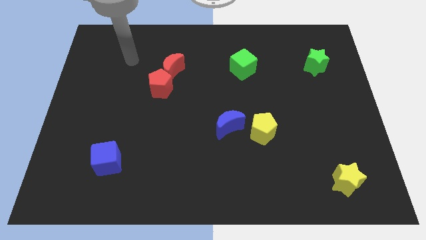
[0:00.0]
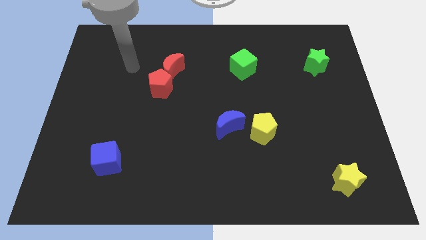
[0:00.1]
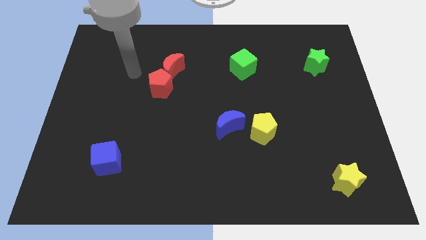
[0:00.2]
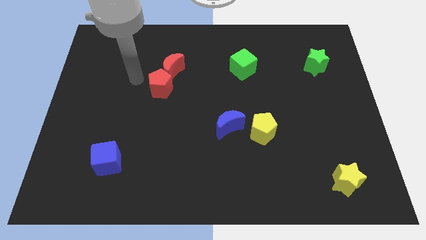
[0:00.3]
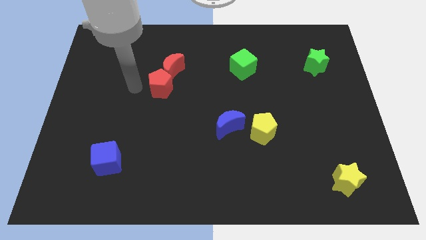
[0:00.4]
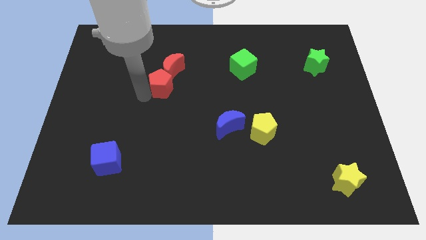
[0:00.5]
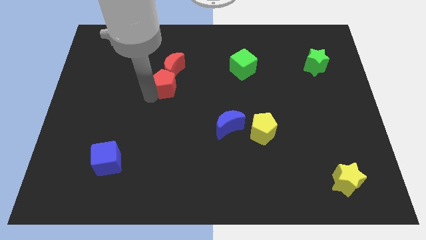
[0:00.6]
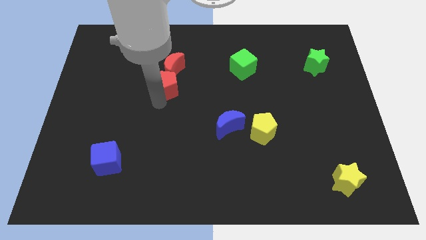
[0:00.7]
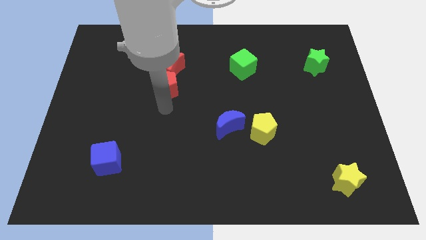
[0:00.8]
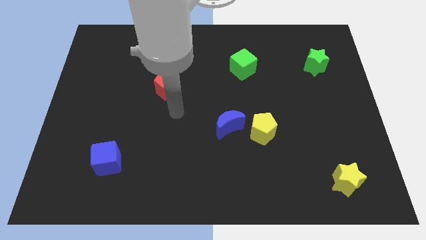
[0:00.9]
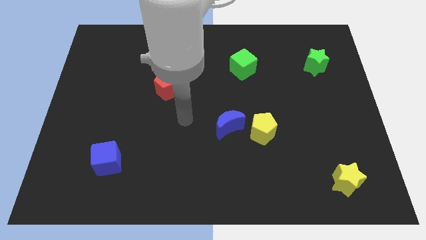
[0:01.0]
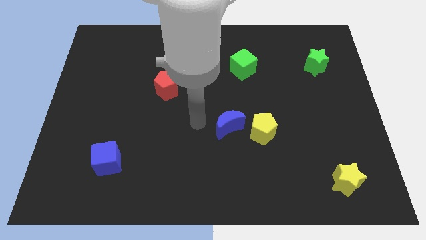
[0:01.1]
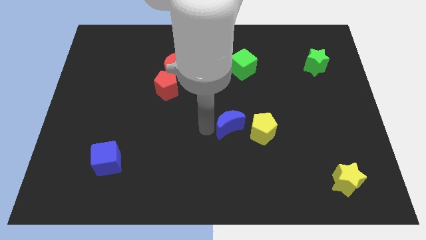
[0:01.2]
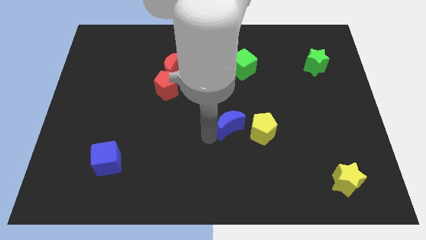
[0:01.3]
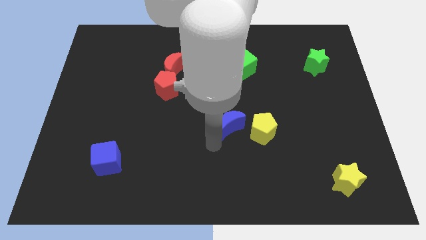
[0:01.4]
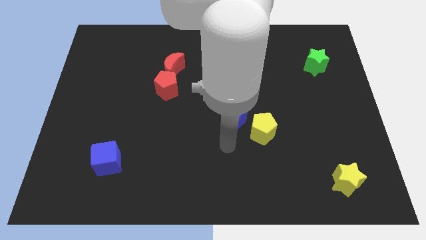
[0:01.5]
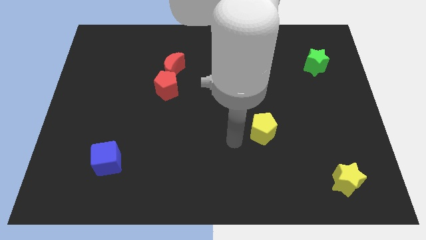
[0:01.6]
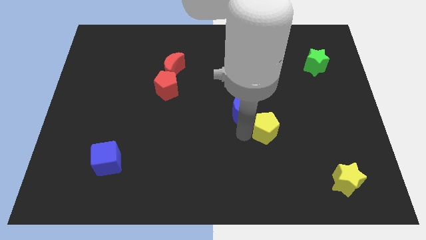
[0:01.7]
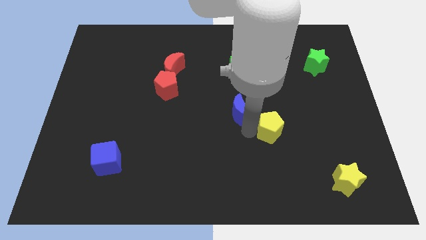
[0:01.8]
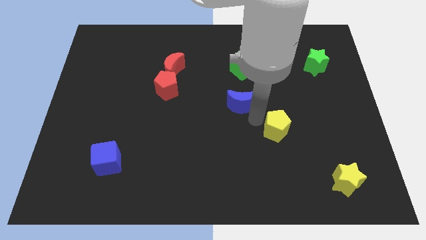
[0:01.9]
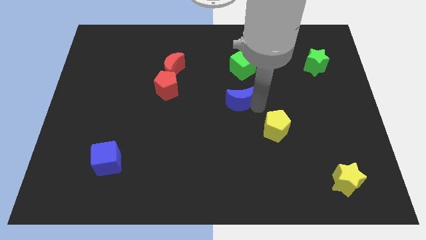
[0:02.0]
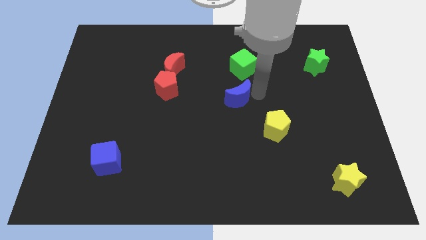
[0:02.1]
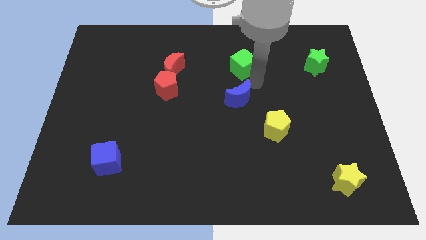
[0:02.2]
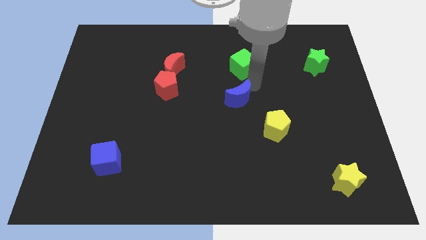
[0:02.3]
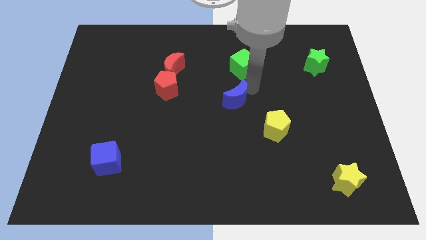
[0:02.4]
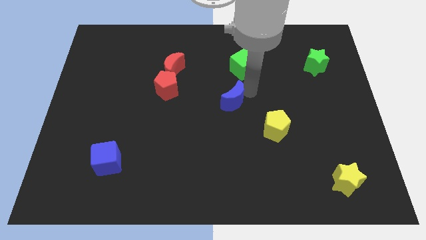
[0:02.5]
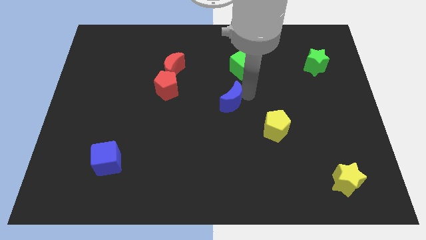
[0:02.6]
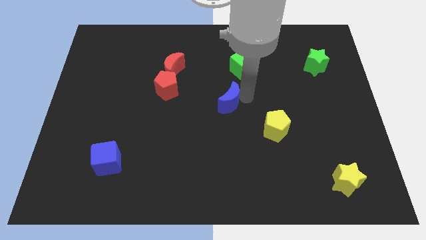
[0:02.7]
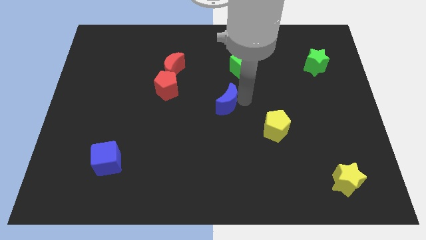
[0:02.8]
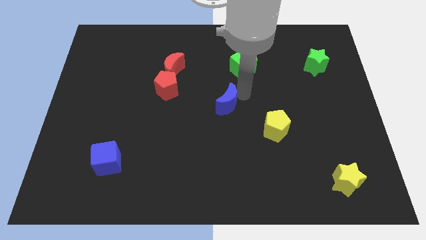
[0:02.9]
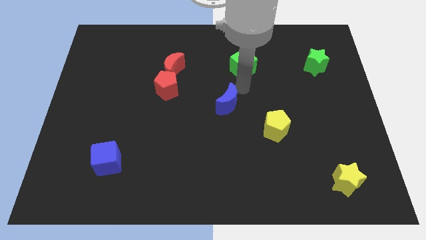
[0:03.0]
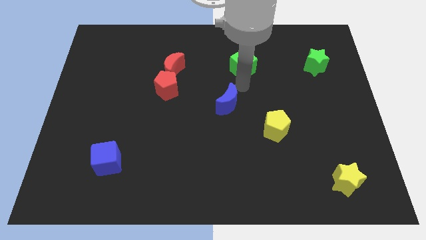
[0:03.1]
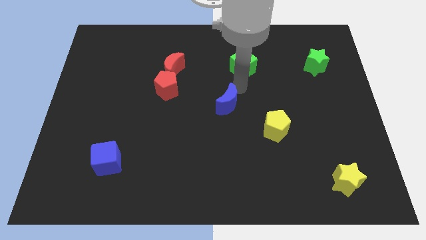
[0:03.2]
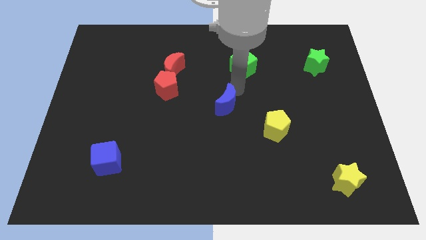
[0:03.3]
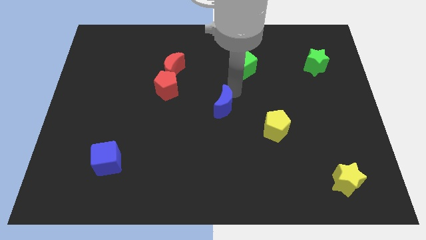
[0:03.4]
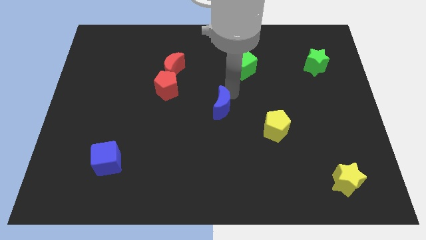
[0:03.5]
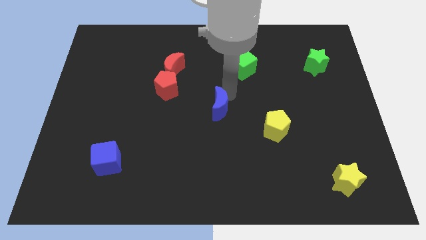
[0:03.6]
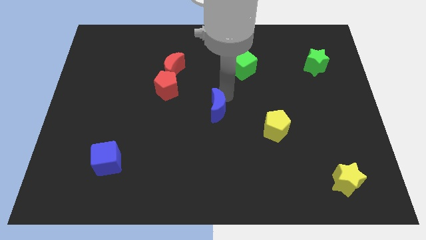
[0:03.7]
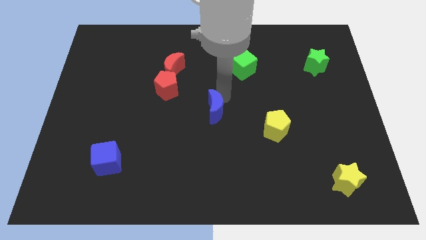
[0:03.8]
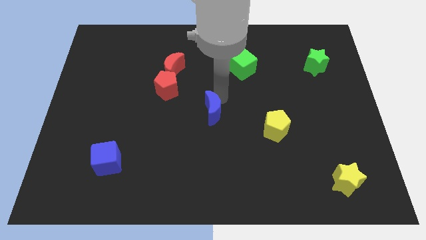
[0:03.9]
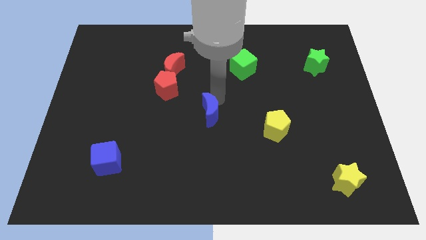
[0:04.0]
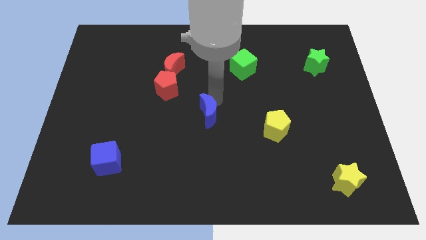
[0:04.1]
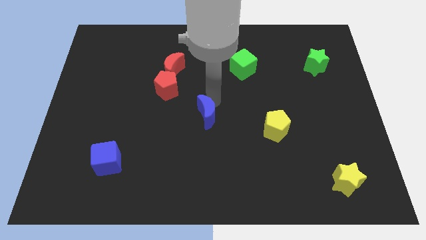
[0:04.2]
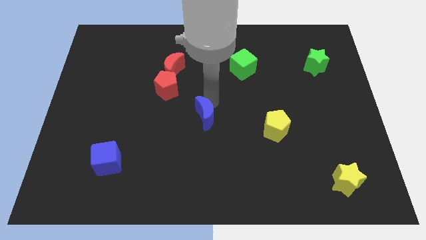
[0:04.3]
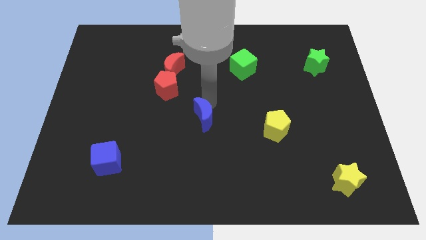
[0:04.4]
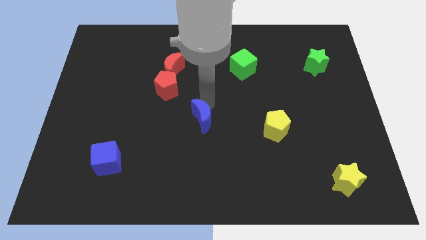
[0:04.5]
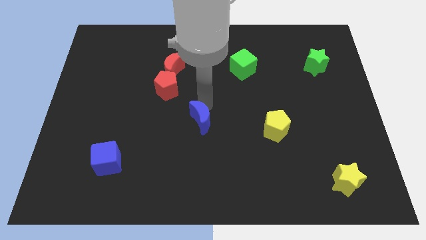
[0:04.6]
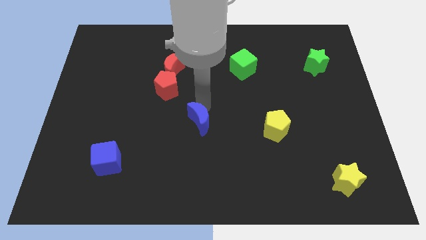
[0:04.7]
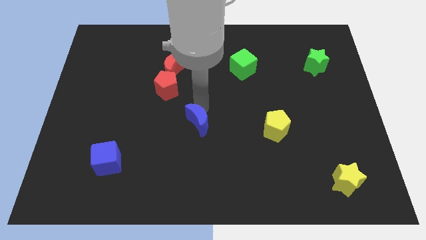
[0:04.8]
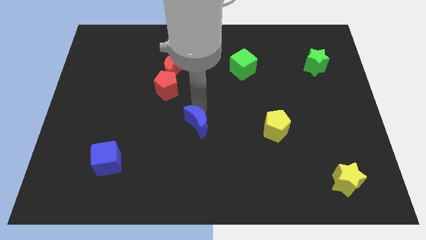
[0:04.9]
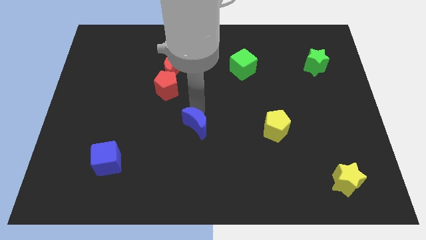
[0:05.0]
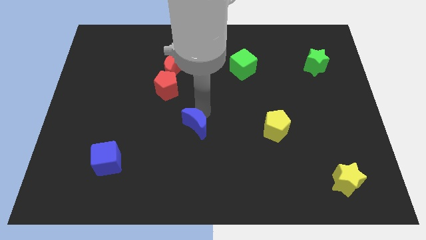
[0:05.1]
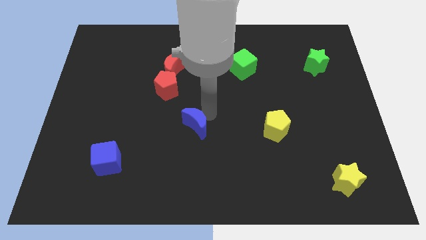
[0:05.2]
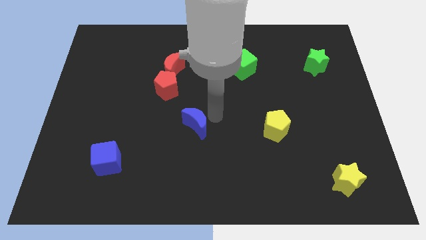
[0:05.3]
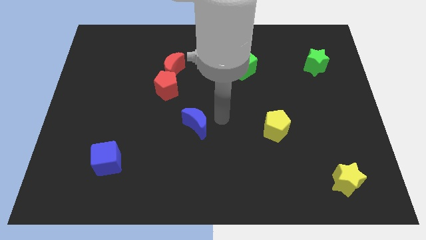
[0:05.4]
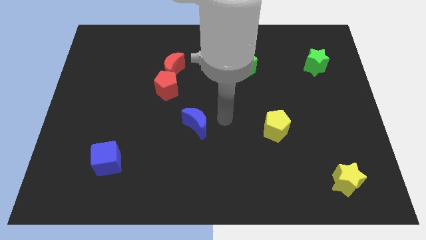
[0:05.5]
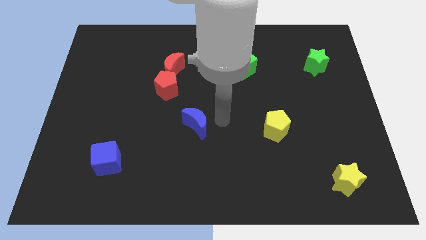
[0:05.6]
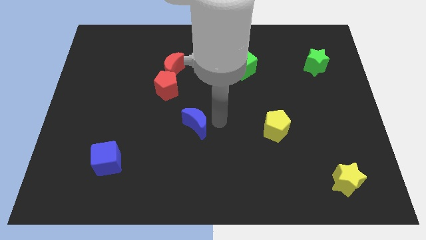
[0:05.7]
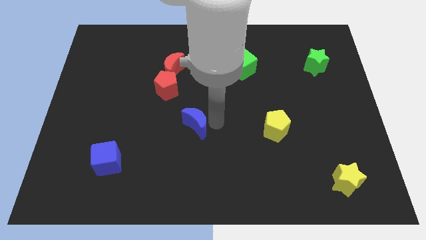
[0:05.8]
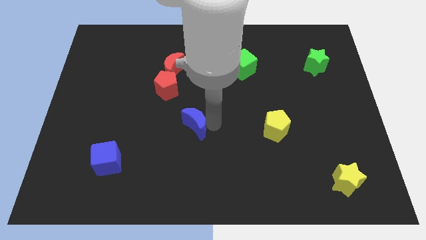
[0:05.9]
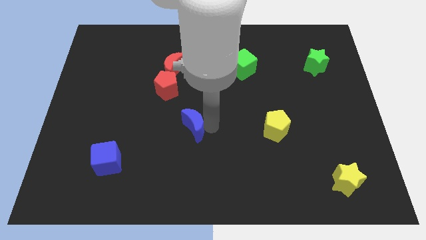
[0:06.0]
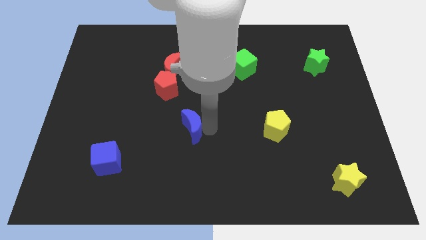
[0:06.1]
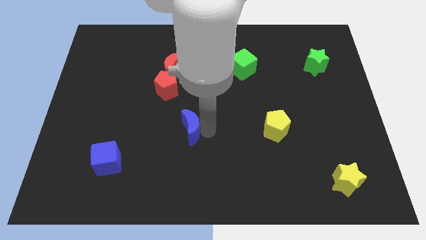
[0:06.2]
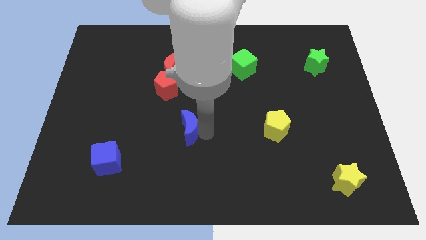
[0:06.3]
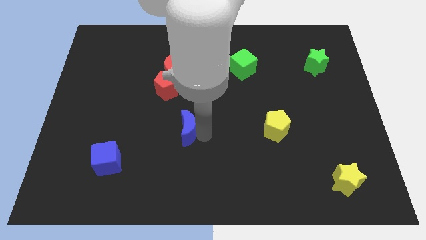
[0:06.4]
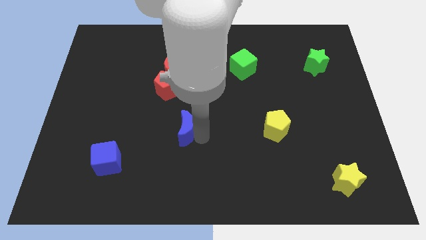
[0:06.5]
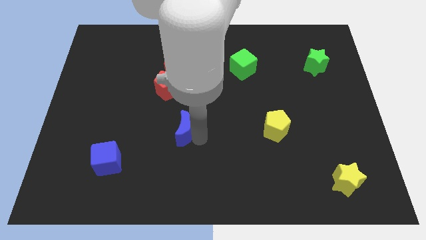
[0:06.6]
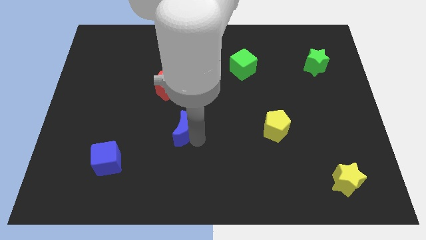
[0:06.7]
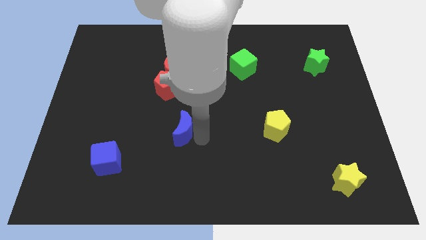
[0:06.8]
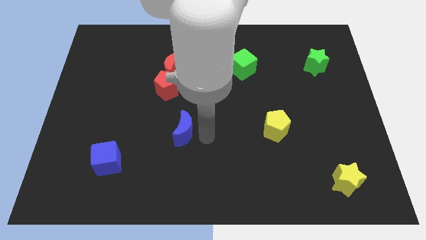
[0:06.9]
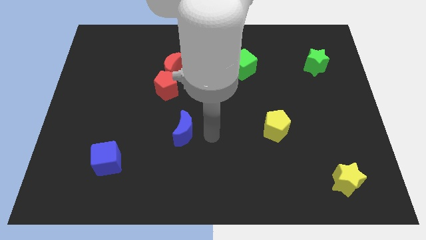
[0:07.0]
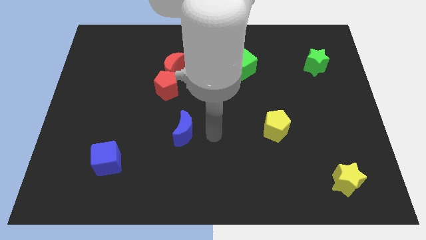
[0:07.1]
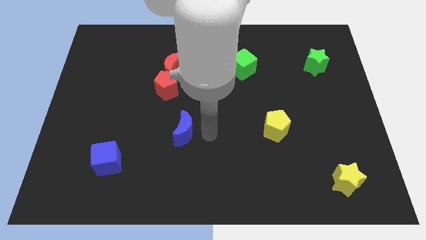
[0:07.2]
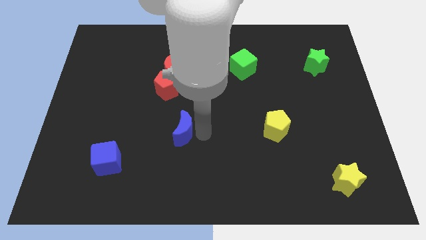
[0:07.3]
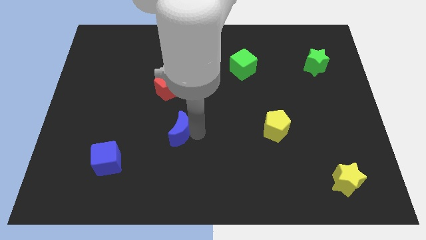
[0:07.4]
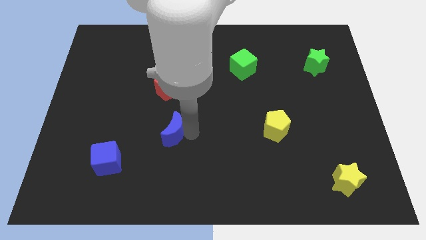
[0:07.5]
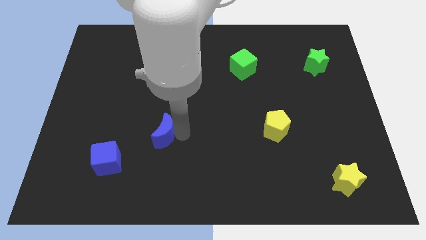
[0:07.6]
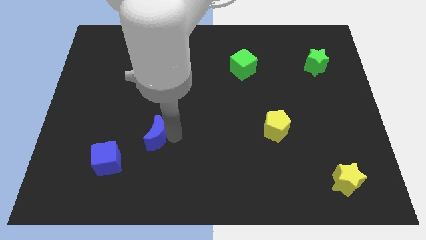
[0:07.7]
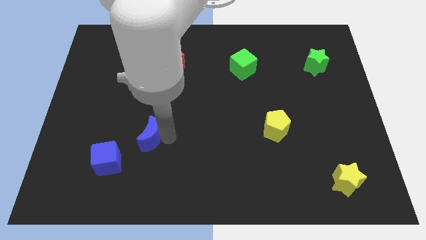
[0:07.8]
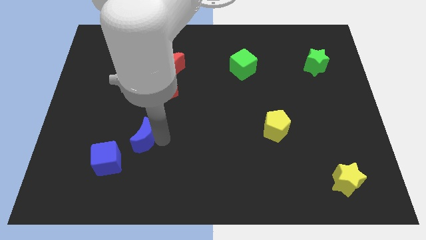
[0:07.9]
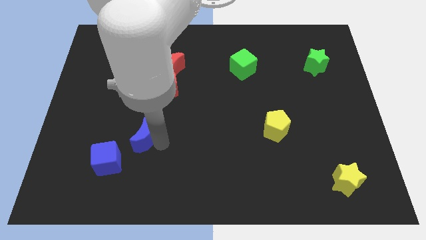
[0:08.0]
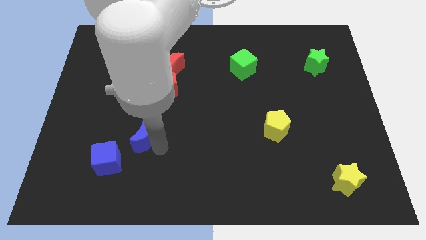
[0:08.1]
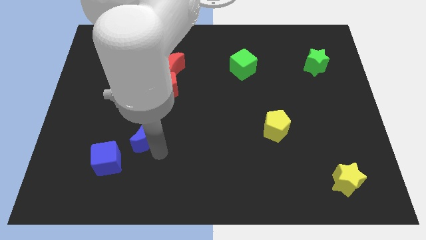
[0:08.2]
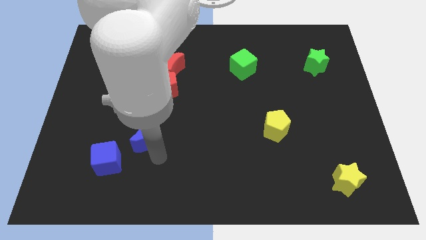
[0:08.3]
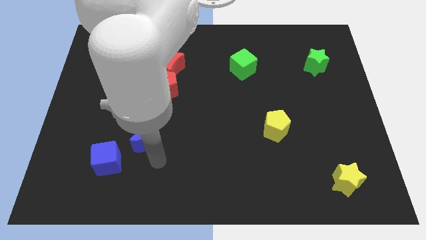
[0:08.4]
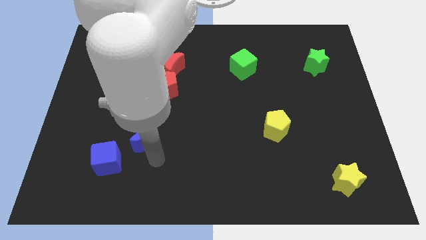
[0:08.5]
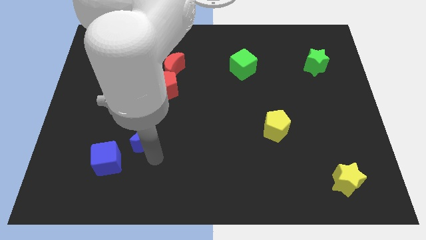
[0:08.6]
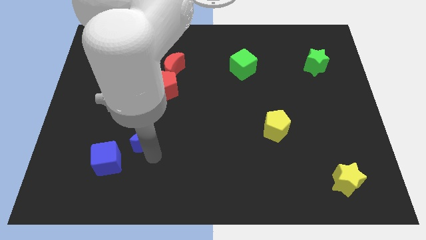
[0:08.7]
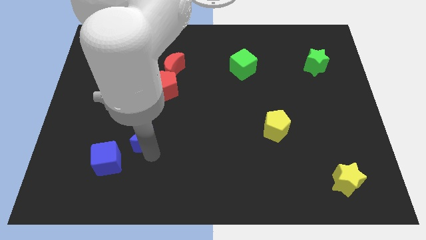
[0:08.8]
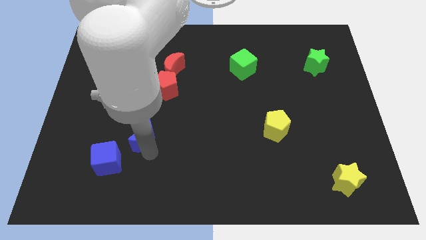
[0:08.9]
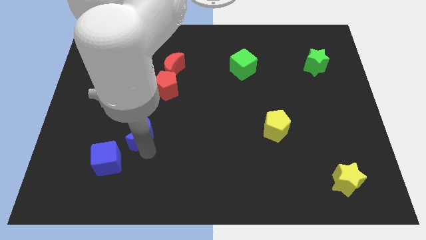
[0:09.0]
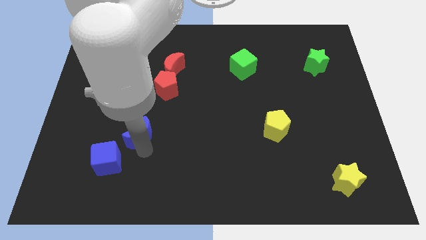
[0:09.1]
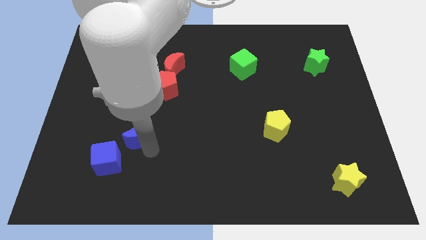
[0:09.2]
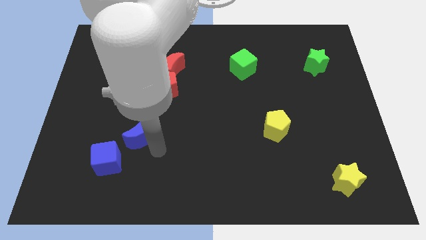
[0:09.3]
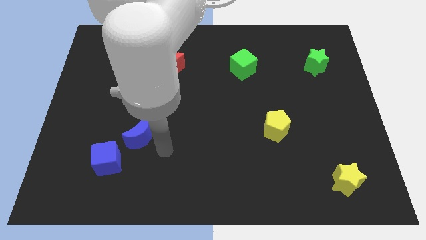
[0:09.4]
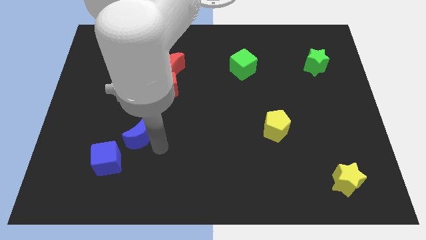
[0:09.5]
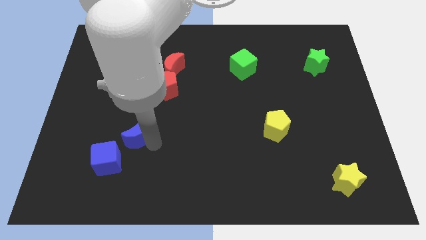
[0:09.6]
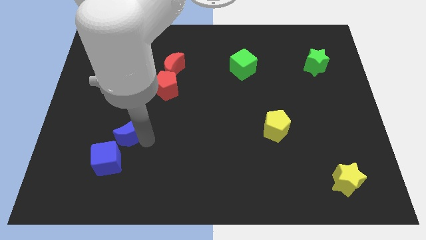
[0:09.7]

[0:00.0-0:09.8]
move the blue moon to the left
